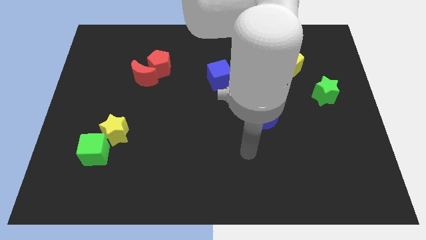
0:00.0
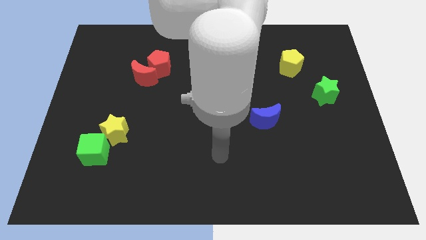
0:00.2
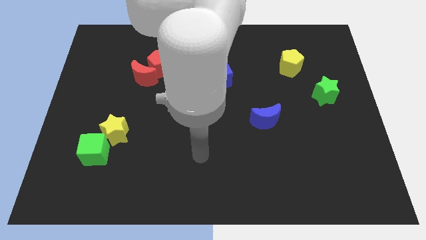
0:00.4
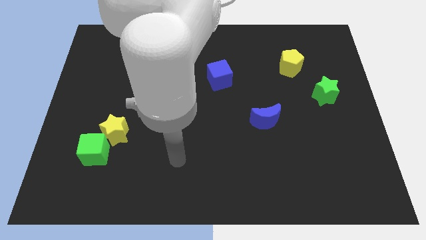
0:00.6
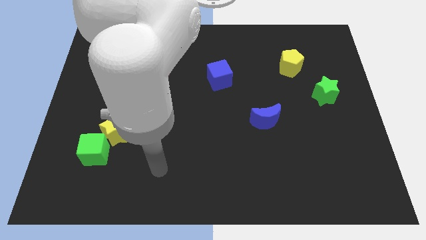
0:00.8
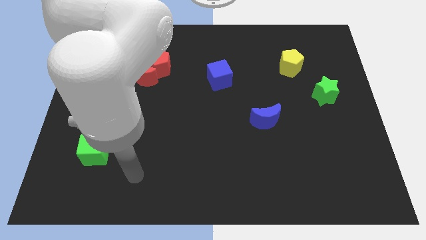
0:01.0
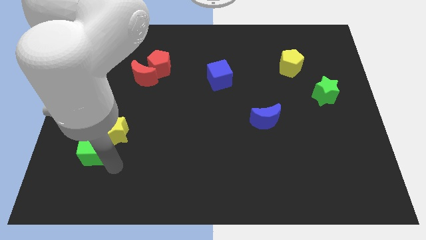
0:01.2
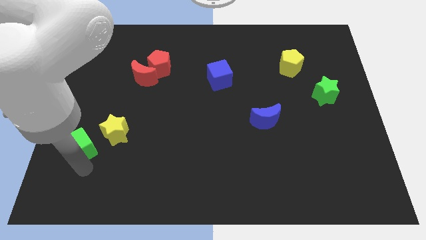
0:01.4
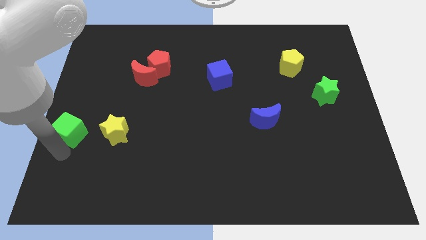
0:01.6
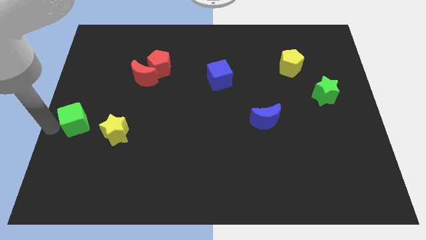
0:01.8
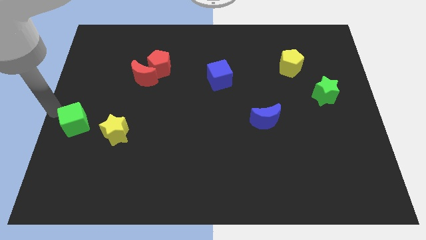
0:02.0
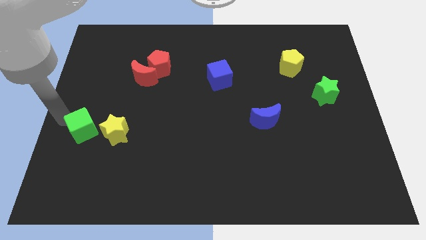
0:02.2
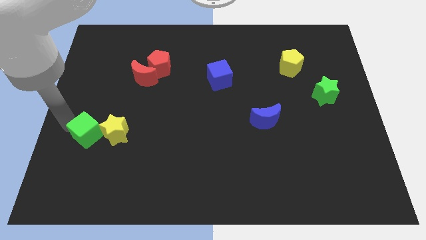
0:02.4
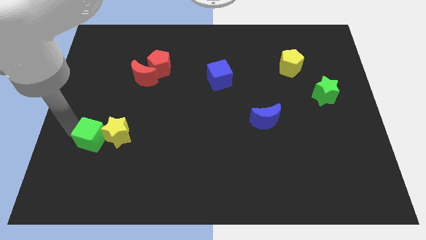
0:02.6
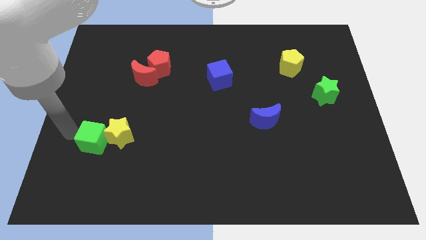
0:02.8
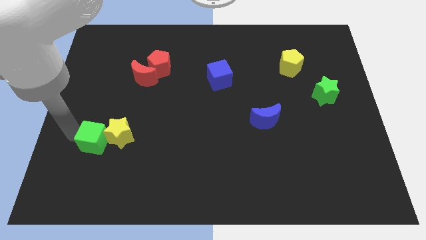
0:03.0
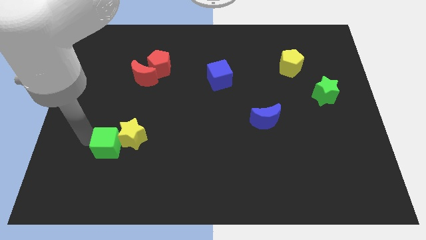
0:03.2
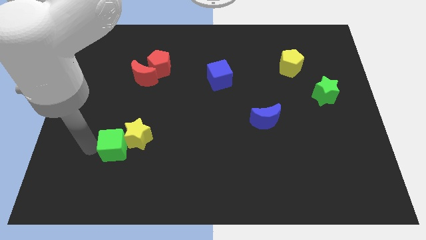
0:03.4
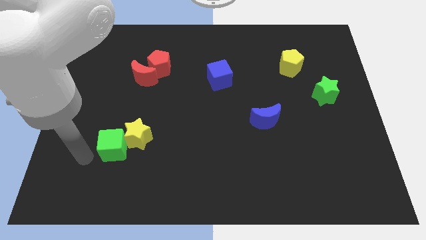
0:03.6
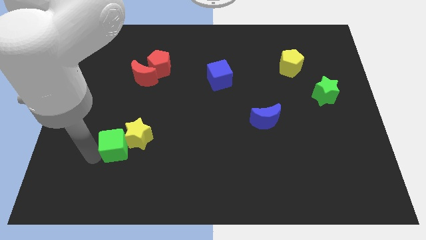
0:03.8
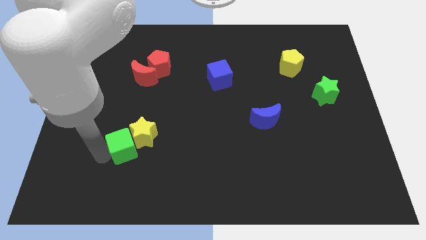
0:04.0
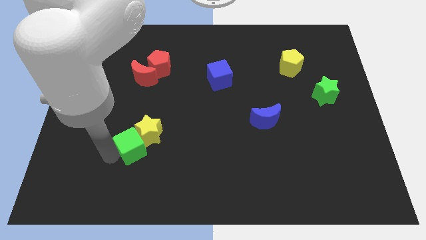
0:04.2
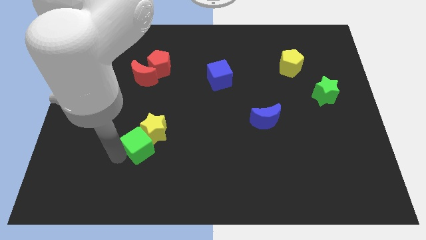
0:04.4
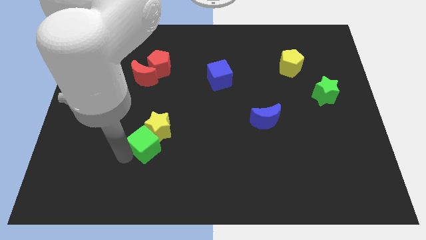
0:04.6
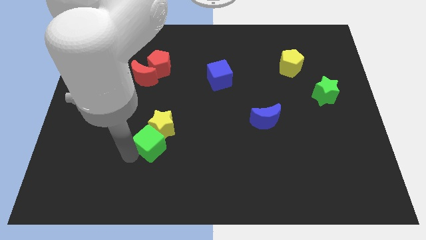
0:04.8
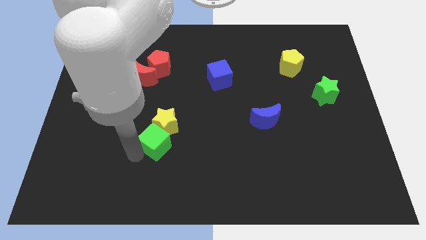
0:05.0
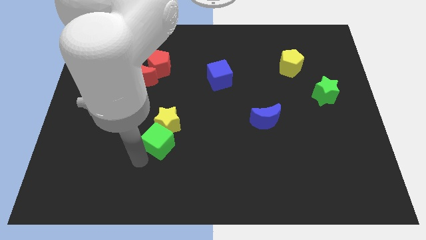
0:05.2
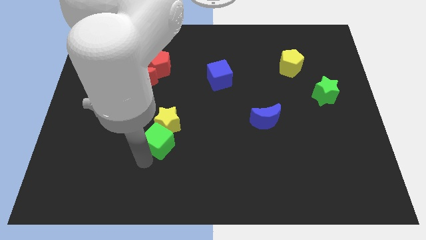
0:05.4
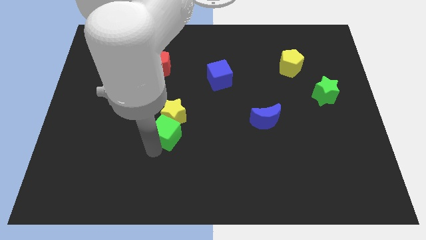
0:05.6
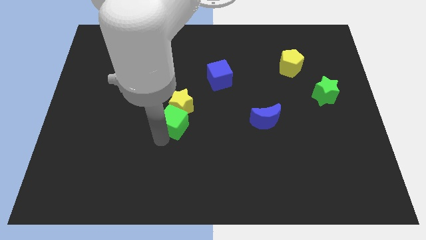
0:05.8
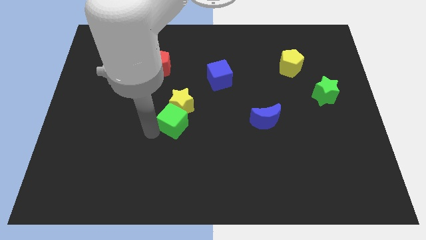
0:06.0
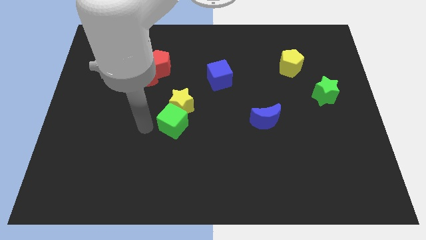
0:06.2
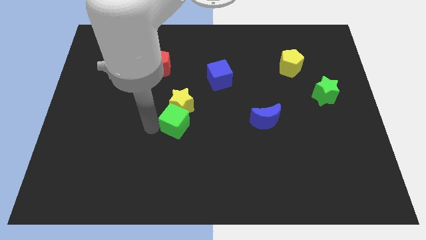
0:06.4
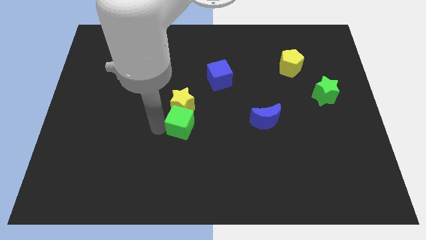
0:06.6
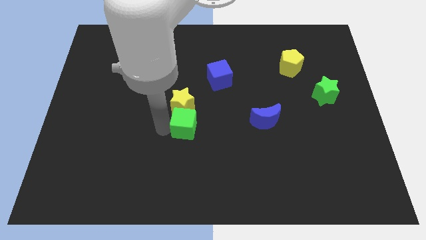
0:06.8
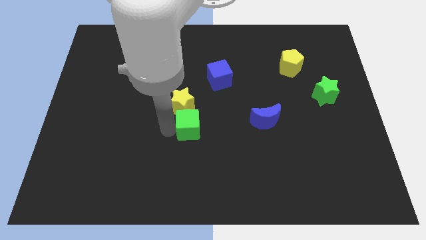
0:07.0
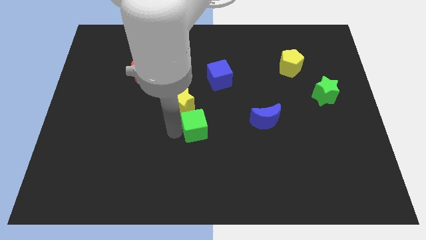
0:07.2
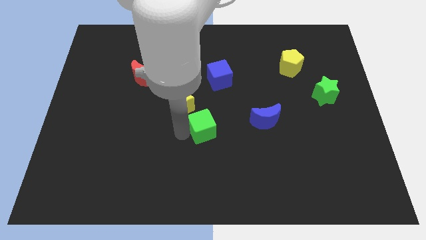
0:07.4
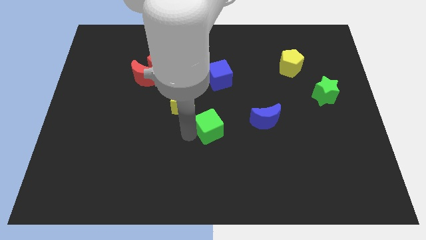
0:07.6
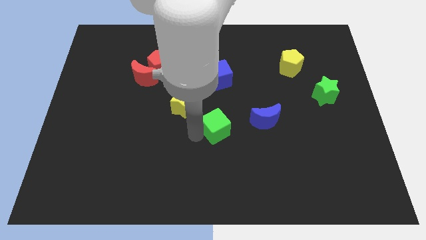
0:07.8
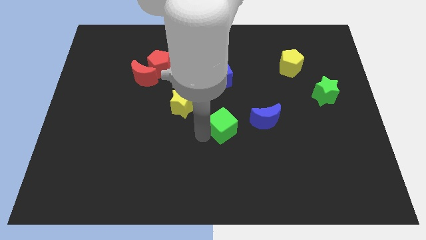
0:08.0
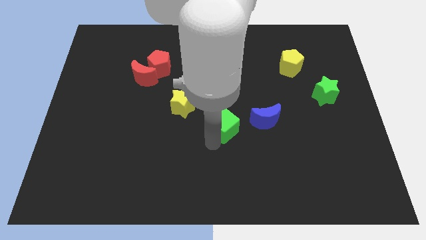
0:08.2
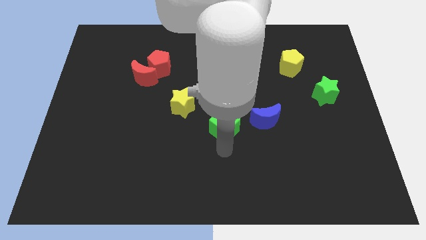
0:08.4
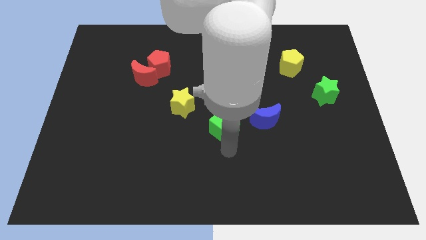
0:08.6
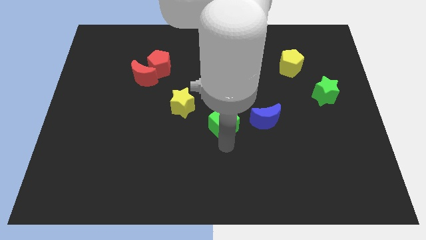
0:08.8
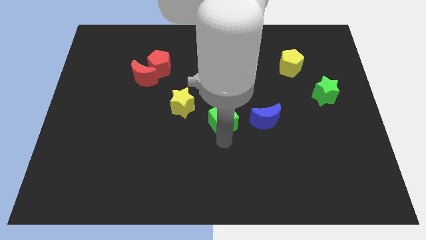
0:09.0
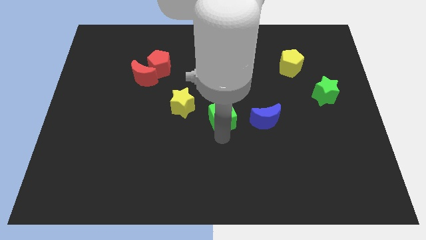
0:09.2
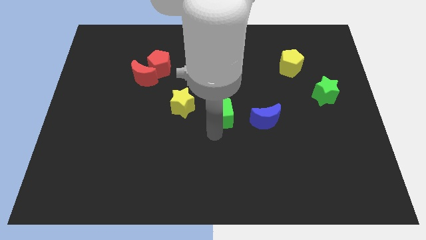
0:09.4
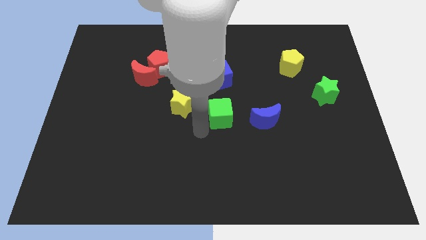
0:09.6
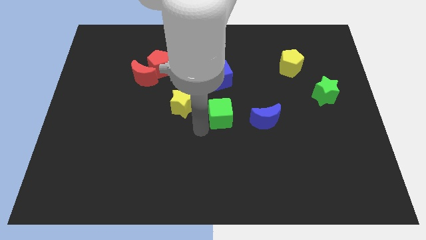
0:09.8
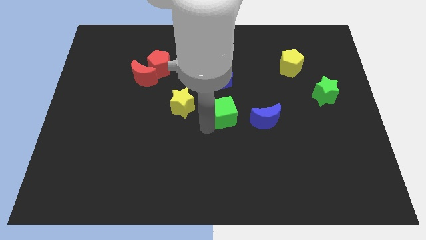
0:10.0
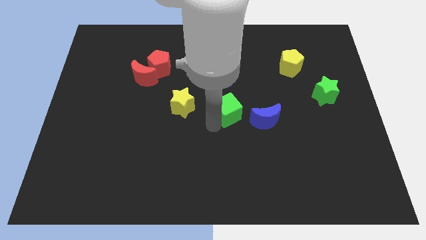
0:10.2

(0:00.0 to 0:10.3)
slide the green cube to the top left side of the blue moon

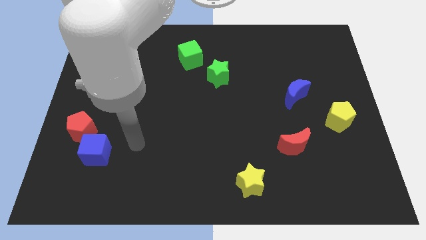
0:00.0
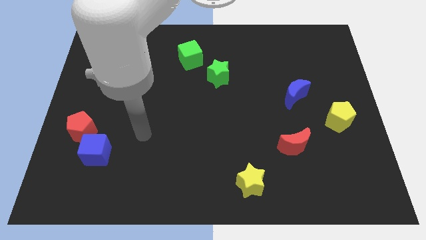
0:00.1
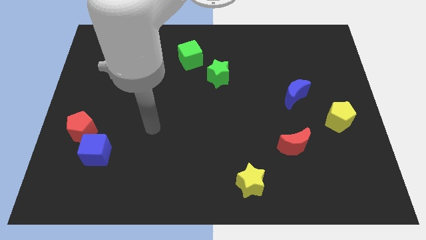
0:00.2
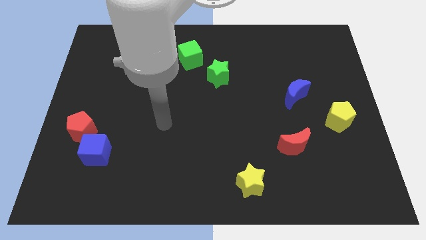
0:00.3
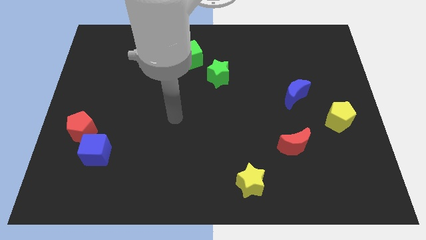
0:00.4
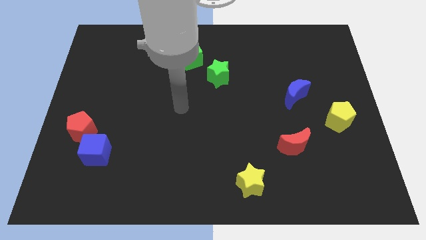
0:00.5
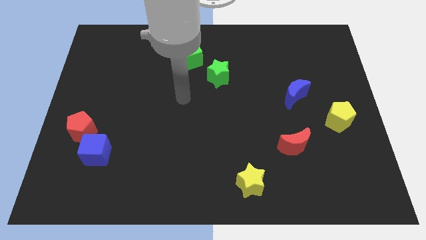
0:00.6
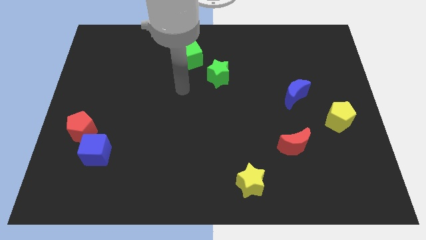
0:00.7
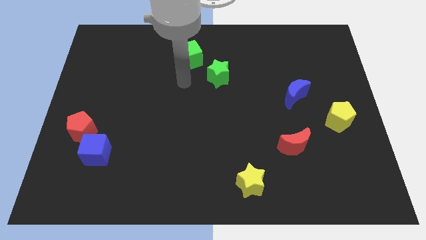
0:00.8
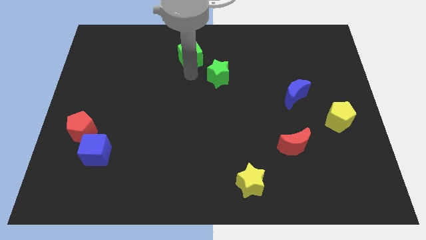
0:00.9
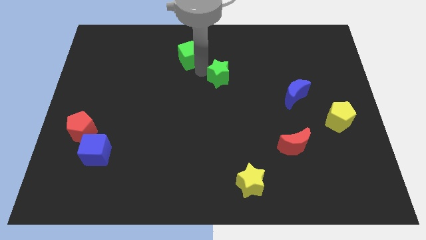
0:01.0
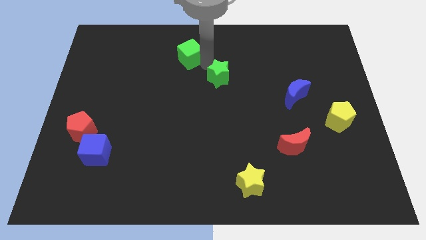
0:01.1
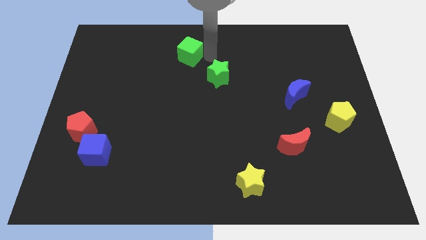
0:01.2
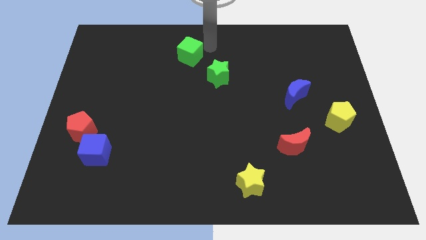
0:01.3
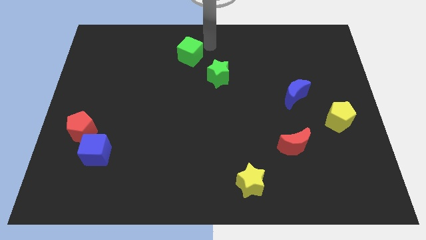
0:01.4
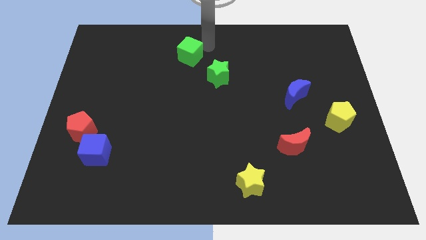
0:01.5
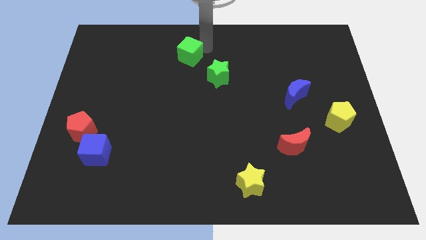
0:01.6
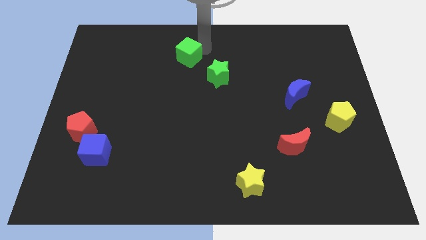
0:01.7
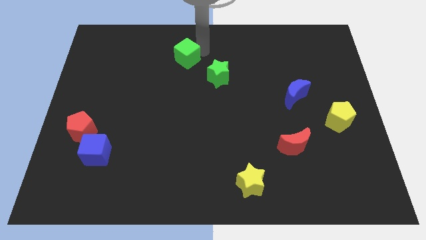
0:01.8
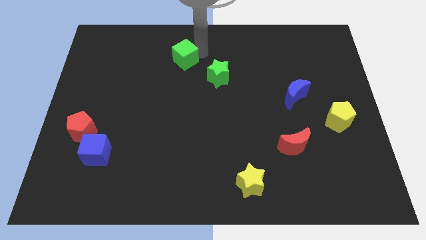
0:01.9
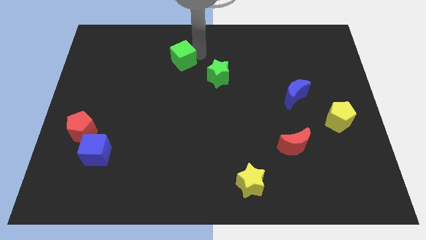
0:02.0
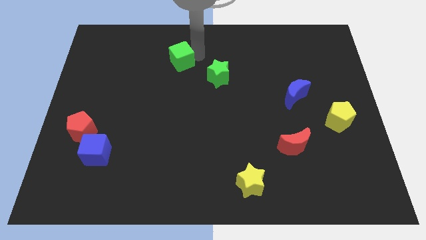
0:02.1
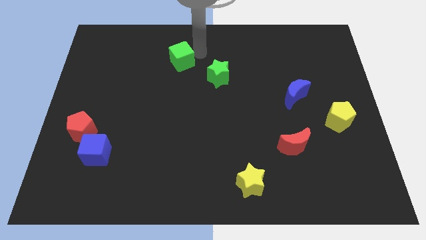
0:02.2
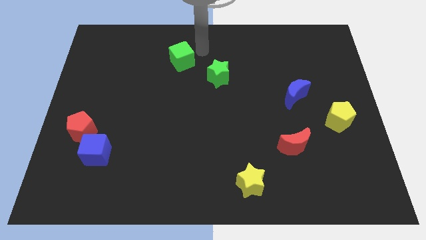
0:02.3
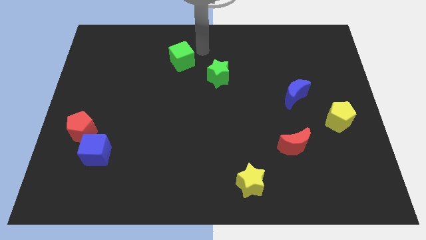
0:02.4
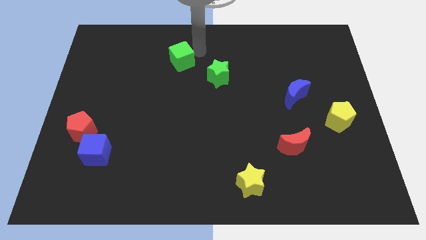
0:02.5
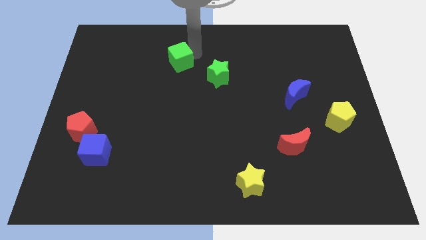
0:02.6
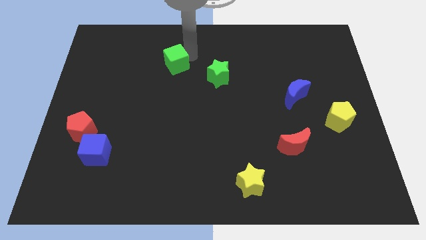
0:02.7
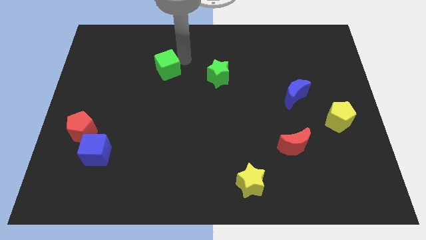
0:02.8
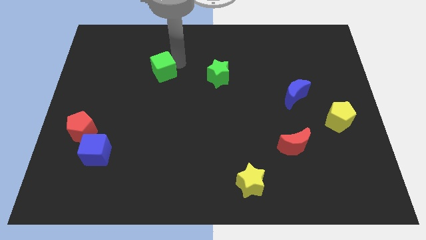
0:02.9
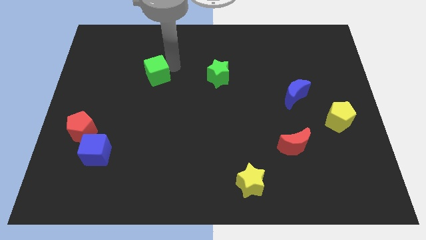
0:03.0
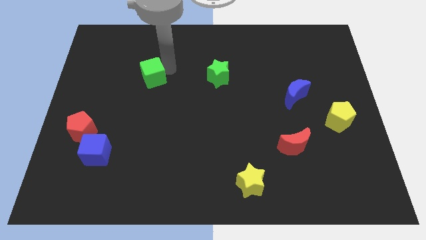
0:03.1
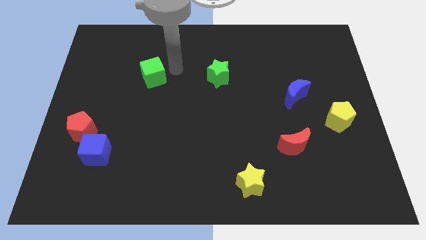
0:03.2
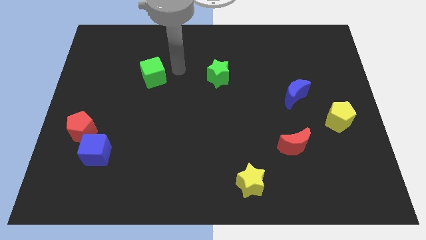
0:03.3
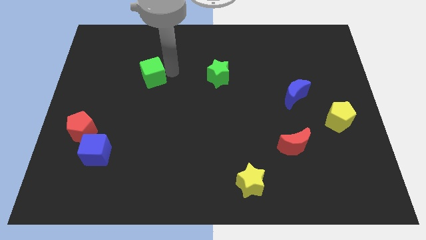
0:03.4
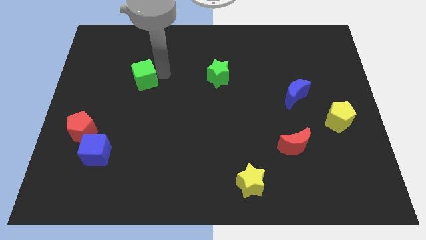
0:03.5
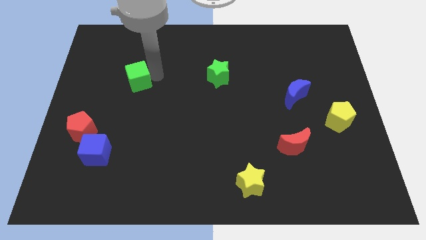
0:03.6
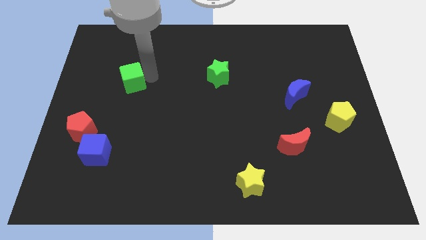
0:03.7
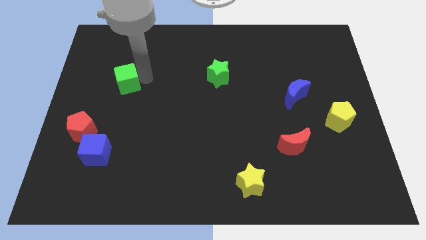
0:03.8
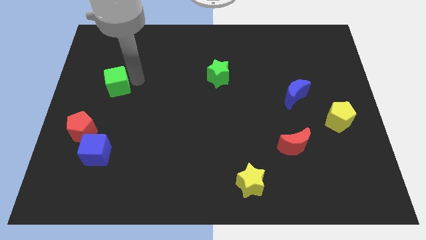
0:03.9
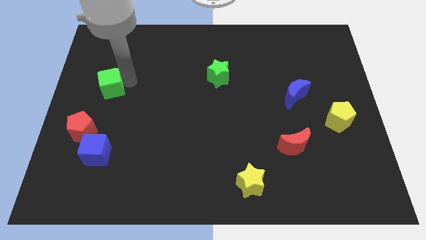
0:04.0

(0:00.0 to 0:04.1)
slide the green cube above the red pentagon
